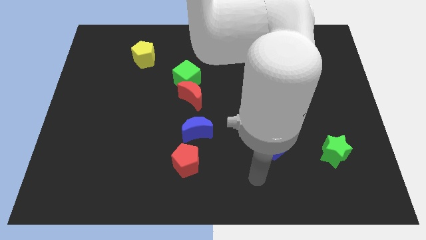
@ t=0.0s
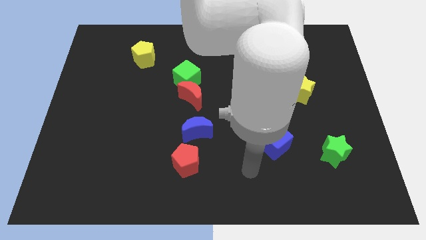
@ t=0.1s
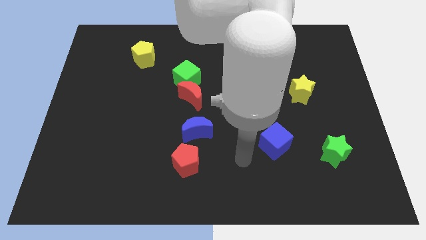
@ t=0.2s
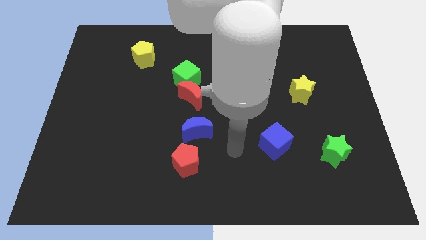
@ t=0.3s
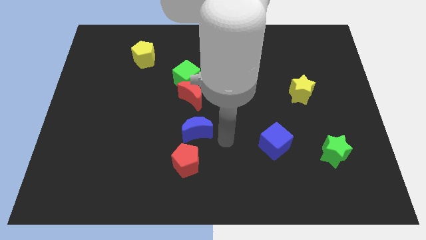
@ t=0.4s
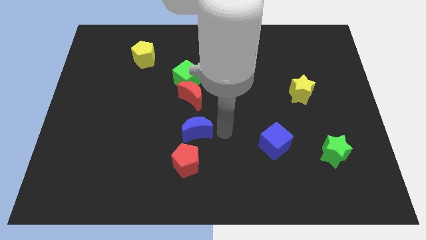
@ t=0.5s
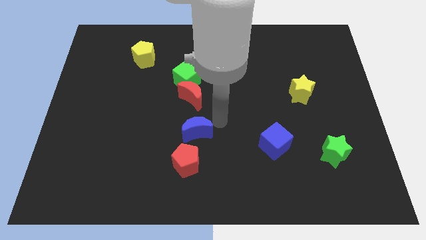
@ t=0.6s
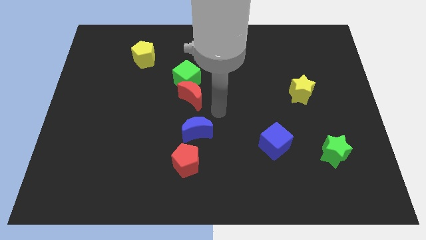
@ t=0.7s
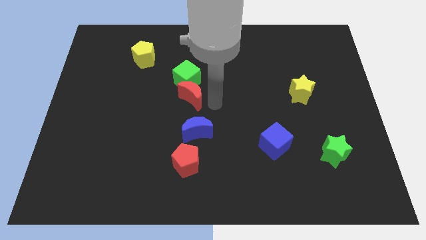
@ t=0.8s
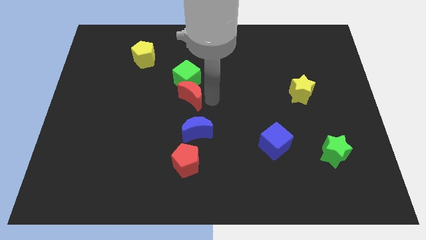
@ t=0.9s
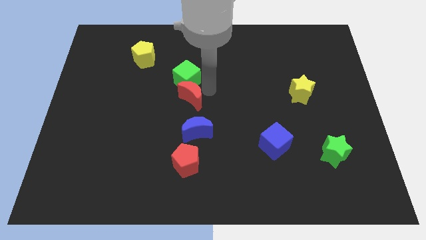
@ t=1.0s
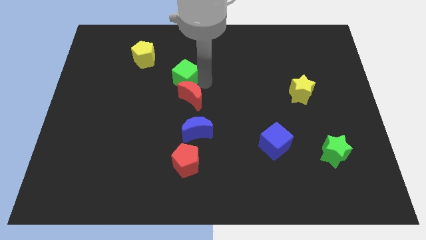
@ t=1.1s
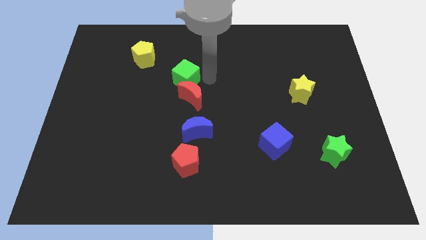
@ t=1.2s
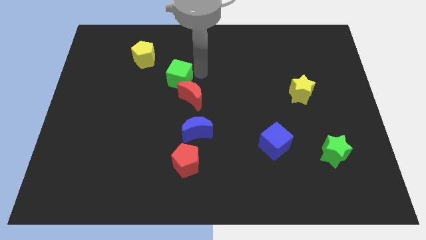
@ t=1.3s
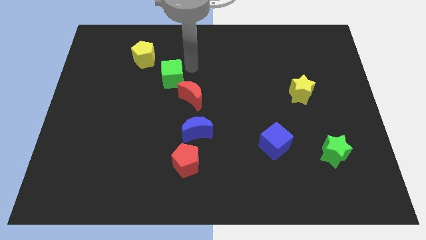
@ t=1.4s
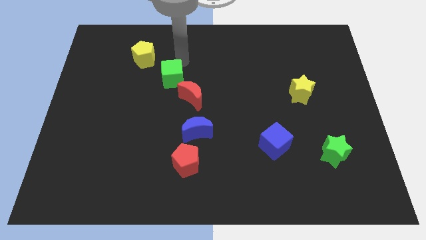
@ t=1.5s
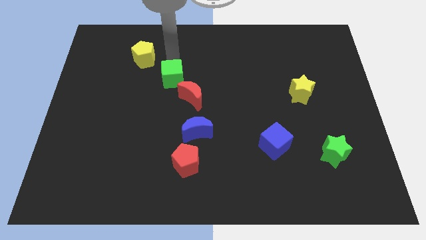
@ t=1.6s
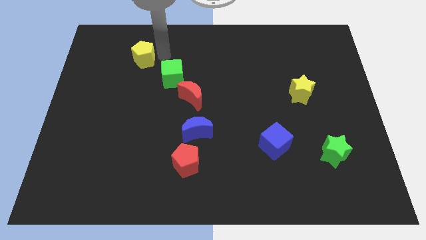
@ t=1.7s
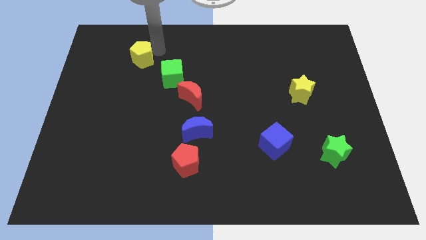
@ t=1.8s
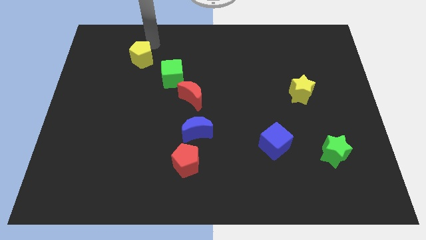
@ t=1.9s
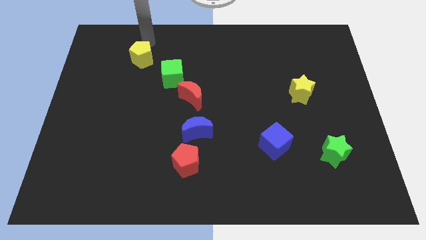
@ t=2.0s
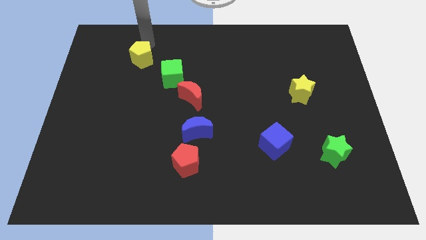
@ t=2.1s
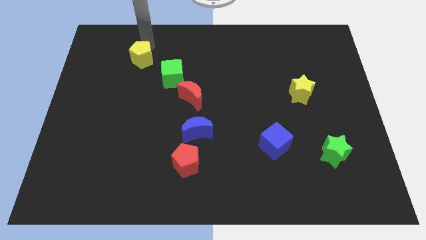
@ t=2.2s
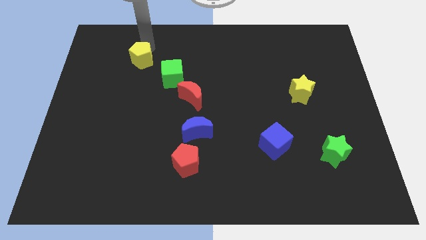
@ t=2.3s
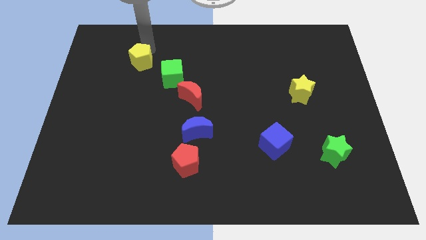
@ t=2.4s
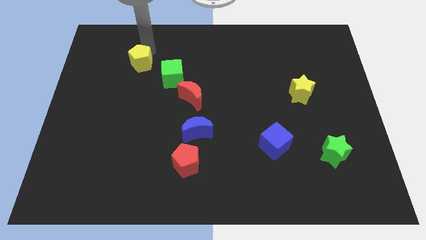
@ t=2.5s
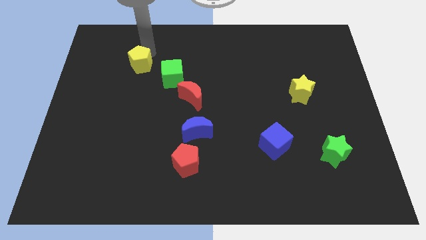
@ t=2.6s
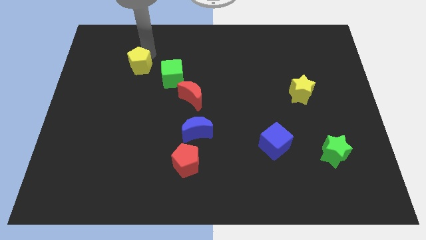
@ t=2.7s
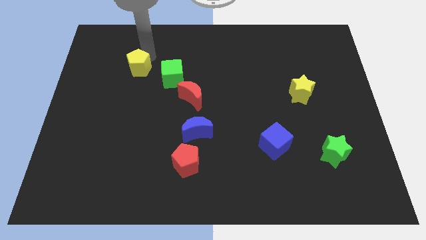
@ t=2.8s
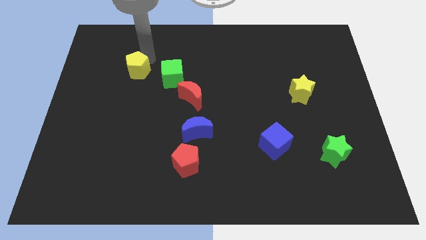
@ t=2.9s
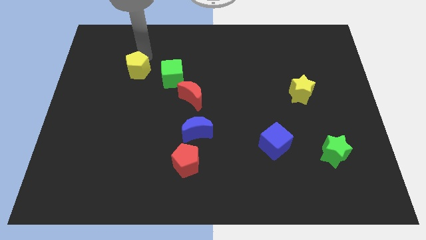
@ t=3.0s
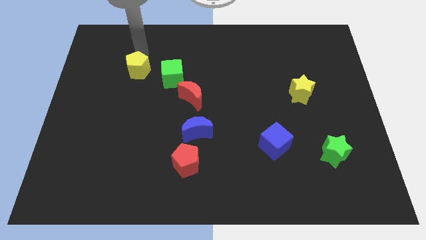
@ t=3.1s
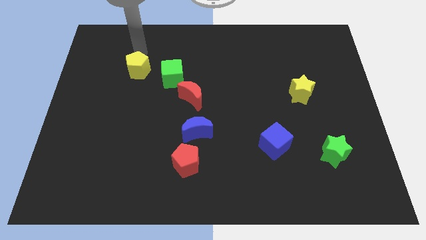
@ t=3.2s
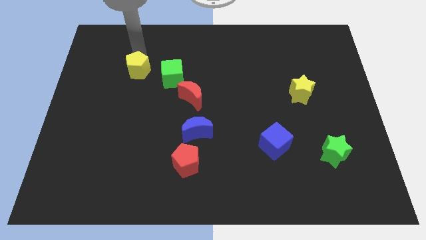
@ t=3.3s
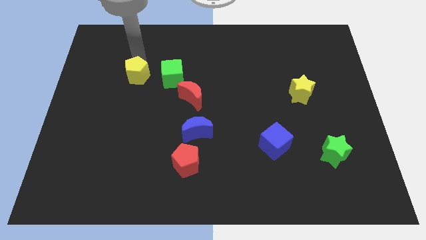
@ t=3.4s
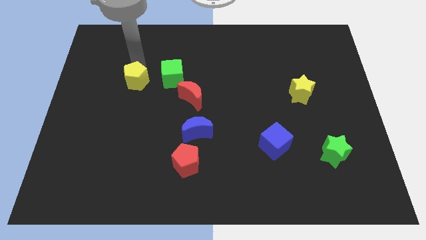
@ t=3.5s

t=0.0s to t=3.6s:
slightly move the yellow pentagon down

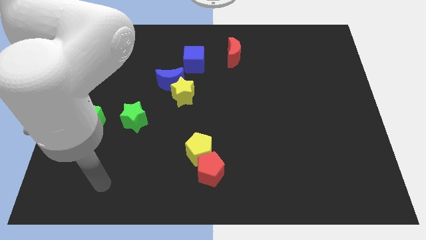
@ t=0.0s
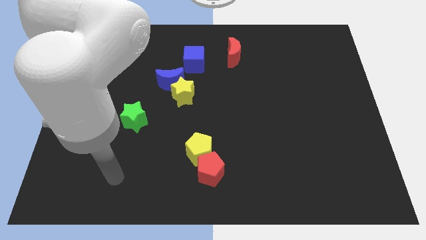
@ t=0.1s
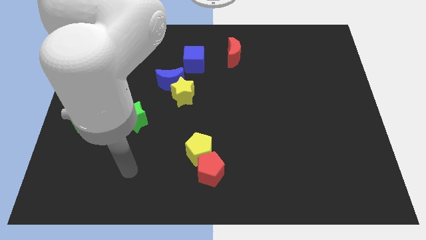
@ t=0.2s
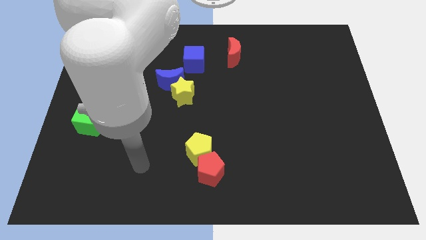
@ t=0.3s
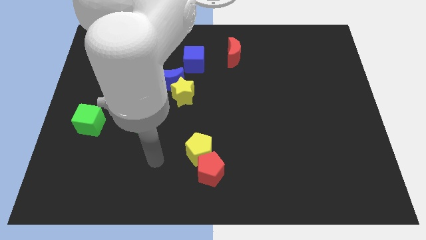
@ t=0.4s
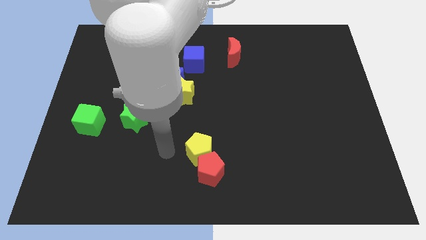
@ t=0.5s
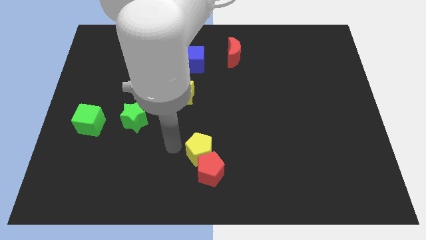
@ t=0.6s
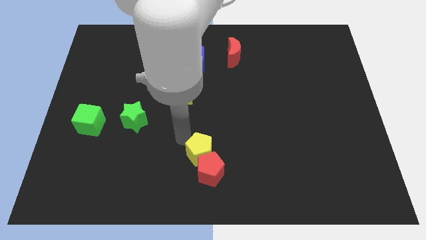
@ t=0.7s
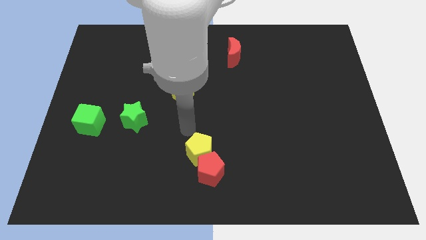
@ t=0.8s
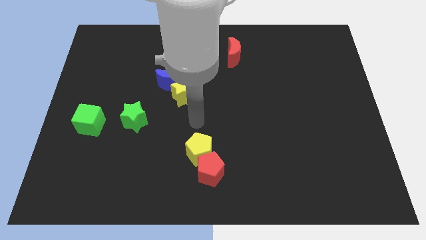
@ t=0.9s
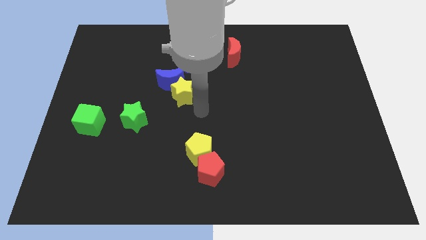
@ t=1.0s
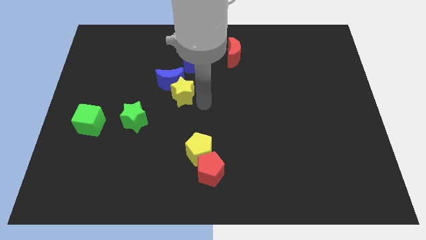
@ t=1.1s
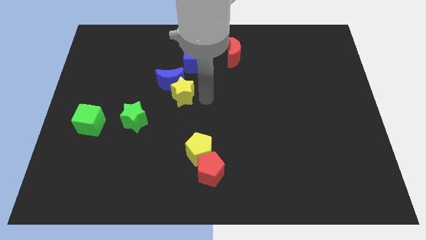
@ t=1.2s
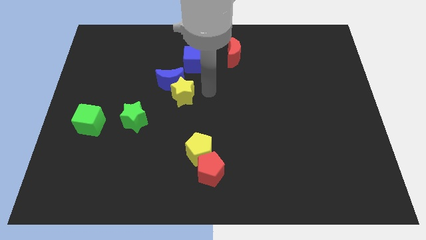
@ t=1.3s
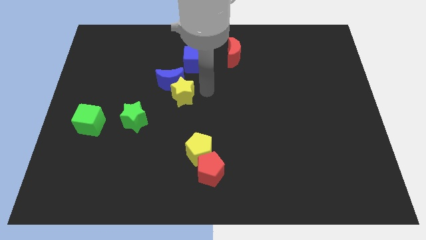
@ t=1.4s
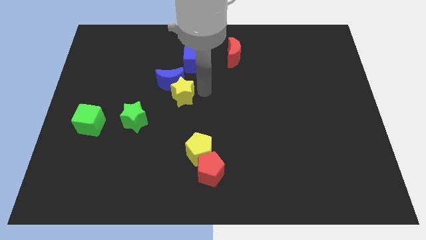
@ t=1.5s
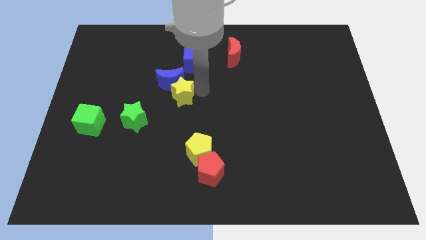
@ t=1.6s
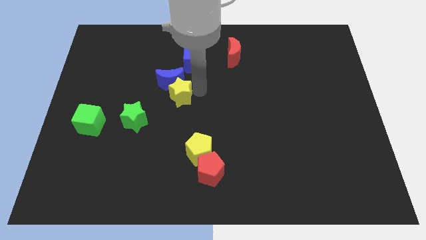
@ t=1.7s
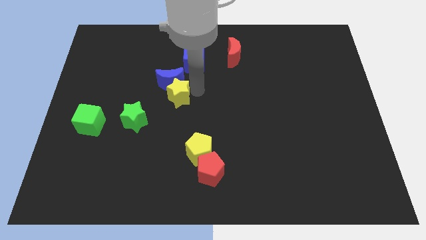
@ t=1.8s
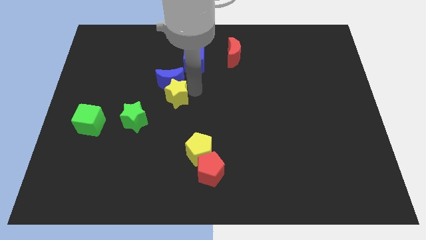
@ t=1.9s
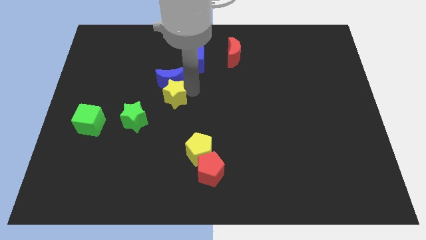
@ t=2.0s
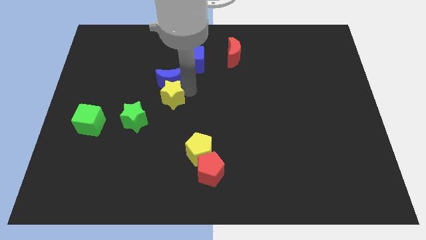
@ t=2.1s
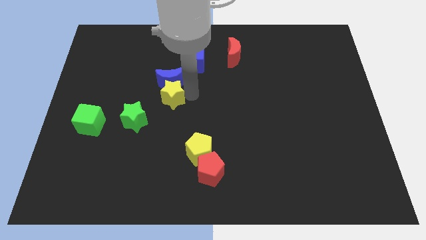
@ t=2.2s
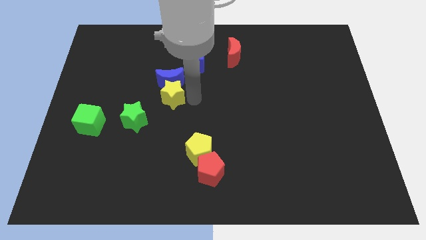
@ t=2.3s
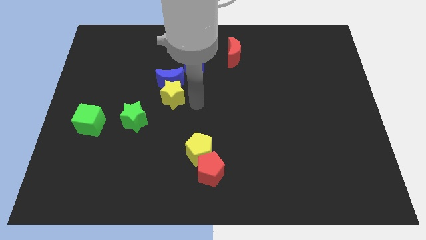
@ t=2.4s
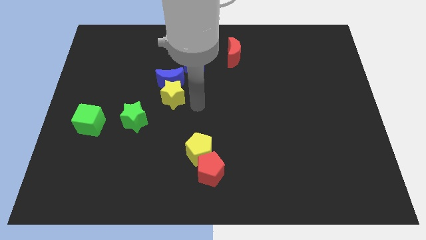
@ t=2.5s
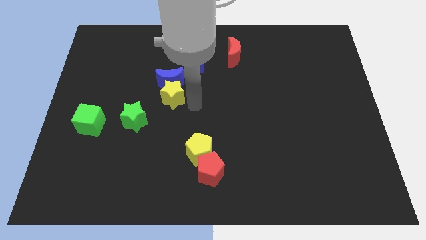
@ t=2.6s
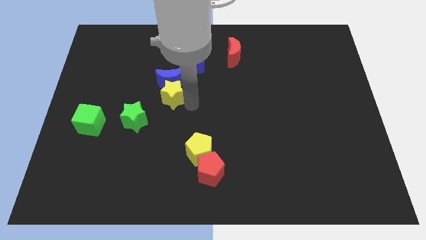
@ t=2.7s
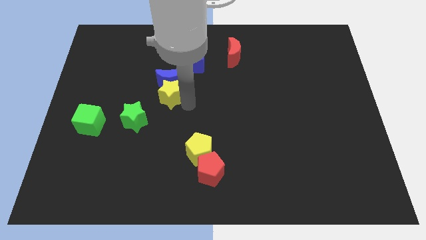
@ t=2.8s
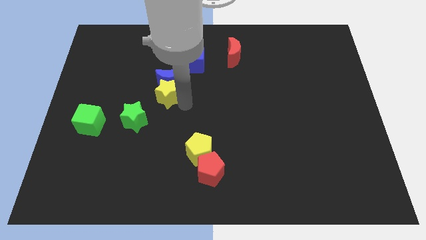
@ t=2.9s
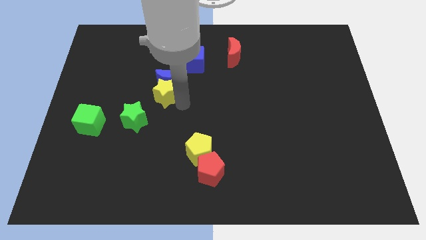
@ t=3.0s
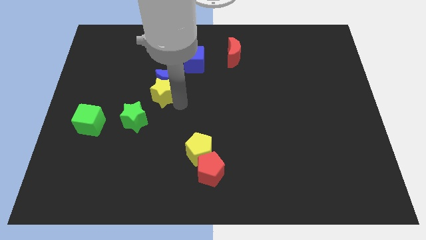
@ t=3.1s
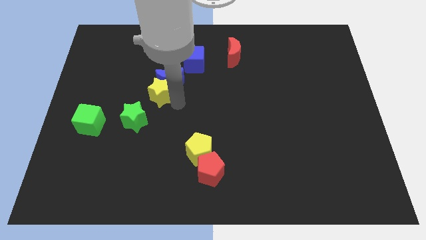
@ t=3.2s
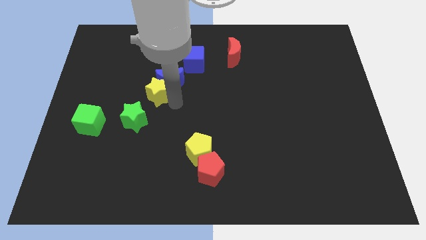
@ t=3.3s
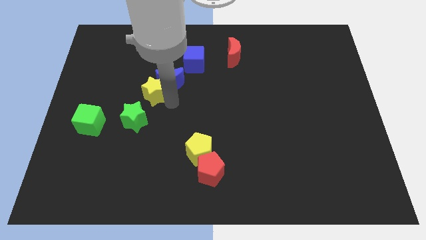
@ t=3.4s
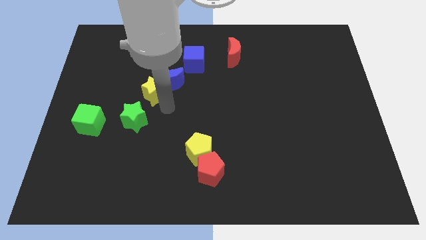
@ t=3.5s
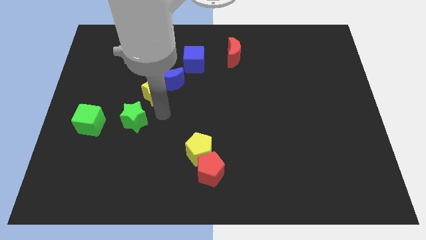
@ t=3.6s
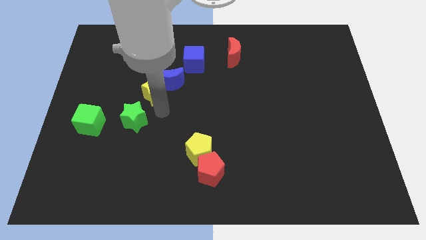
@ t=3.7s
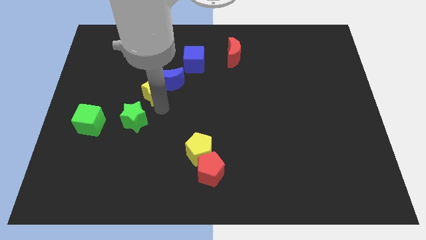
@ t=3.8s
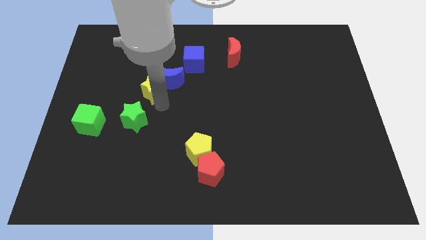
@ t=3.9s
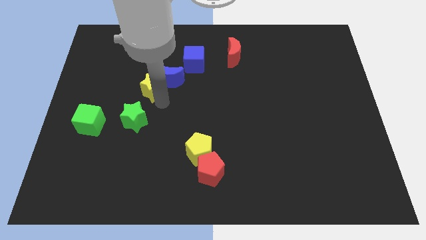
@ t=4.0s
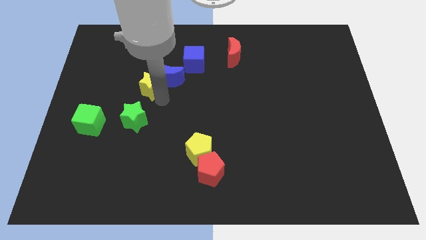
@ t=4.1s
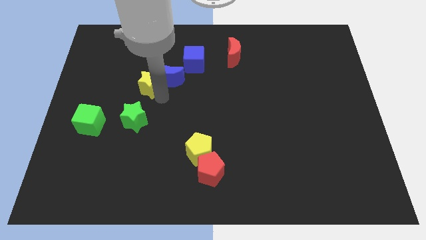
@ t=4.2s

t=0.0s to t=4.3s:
slide the yellow star upwards and left somewhat

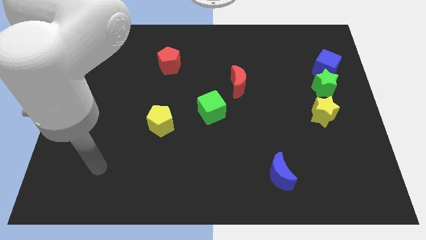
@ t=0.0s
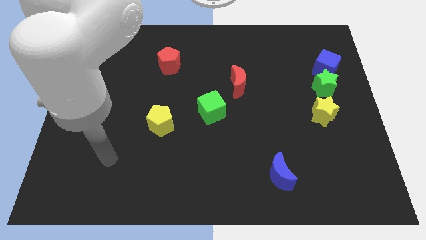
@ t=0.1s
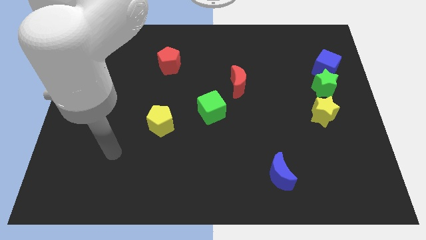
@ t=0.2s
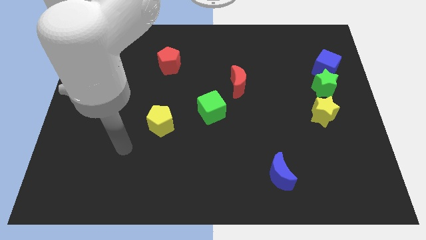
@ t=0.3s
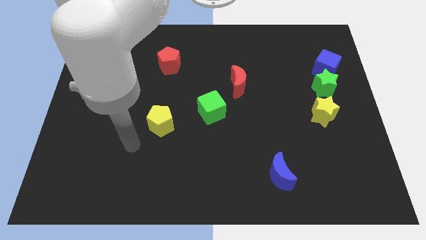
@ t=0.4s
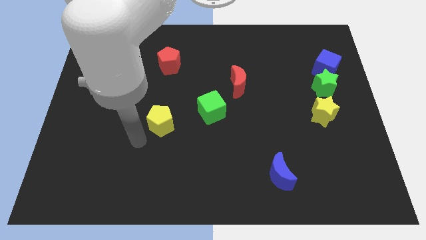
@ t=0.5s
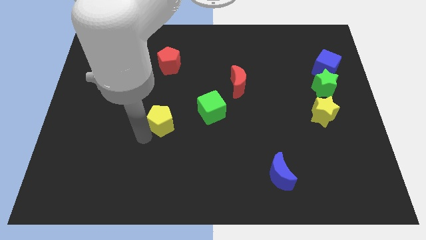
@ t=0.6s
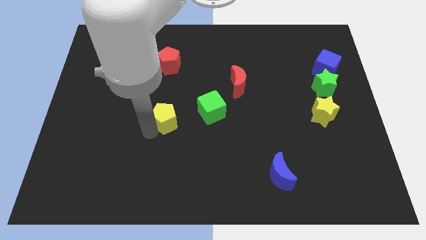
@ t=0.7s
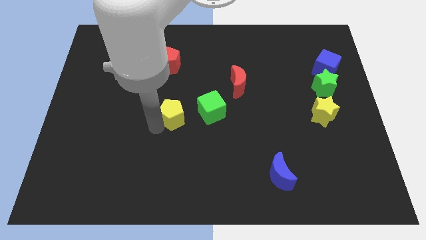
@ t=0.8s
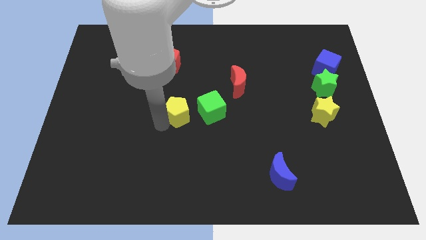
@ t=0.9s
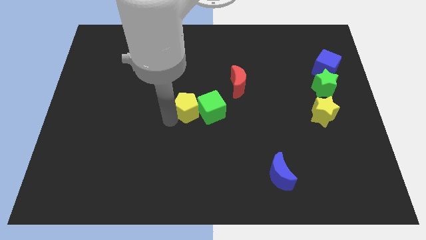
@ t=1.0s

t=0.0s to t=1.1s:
slide the yellow pentagon slightly upwards and to the right
